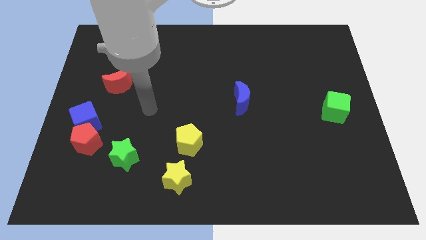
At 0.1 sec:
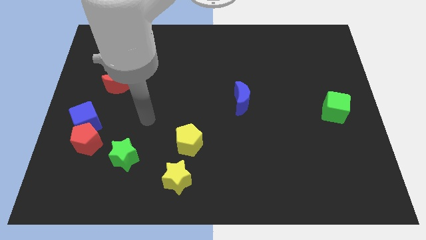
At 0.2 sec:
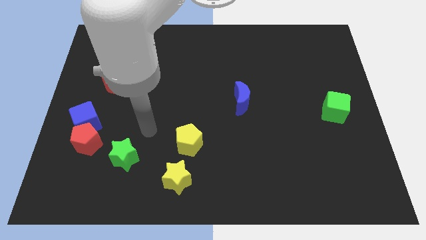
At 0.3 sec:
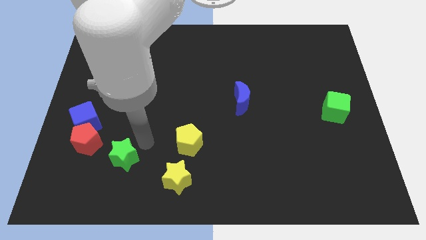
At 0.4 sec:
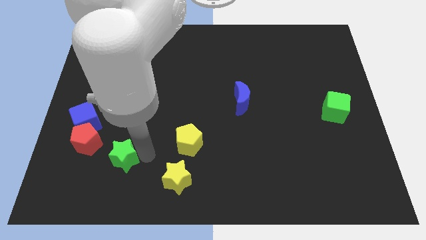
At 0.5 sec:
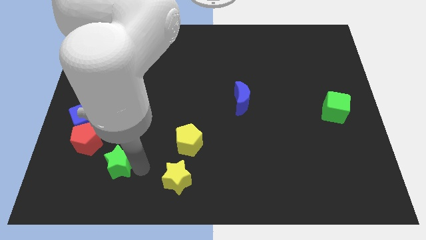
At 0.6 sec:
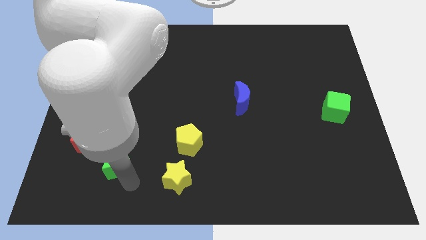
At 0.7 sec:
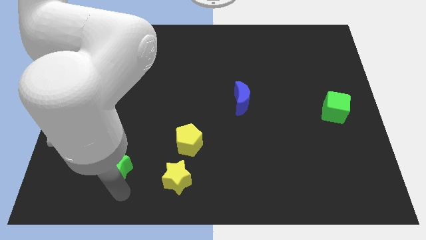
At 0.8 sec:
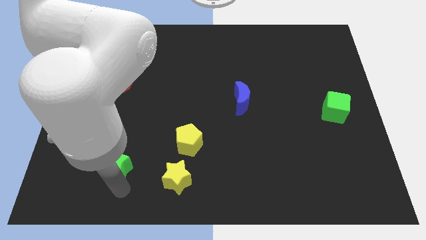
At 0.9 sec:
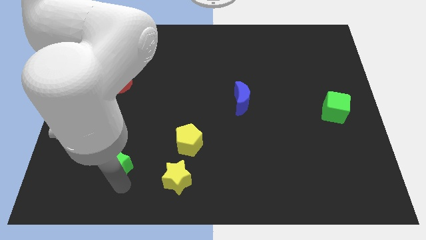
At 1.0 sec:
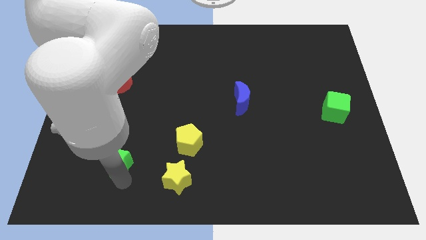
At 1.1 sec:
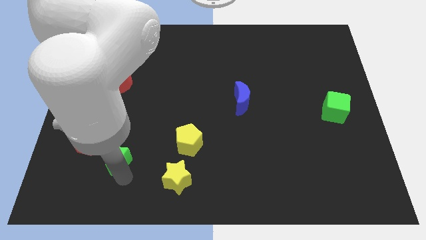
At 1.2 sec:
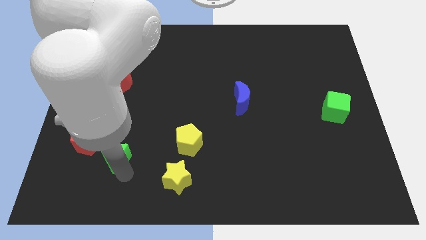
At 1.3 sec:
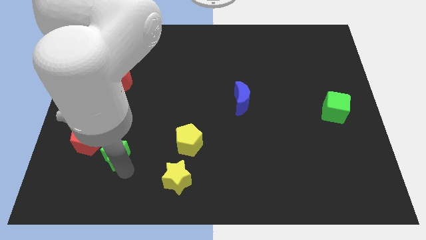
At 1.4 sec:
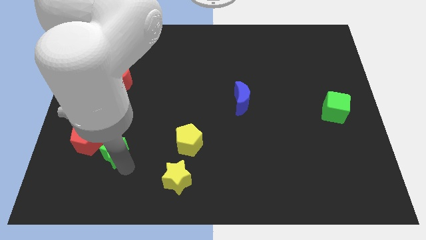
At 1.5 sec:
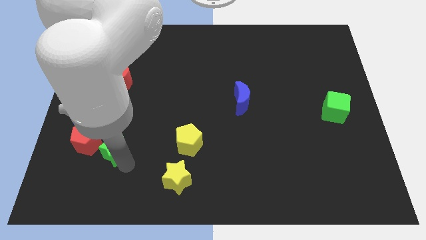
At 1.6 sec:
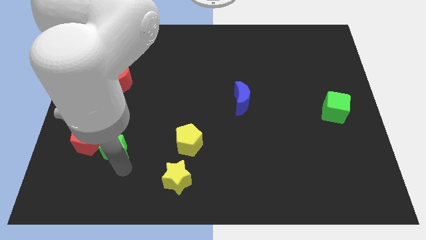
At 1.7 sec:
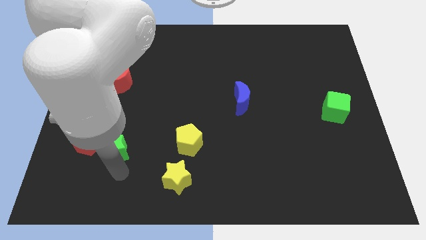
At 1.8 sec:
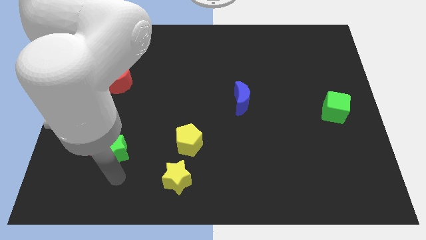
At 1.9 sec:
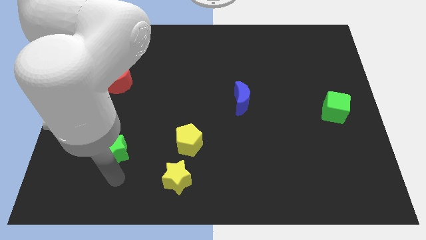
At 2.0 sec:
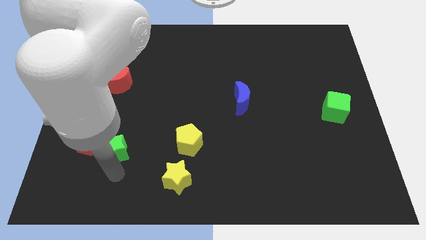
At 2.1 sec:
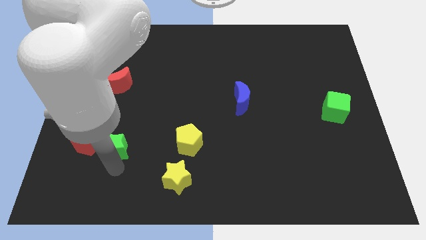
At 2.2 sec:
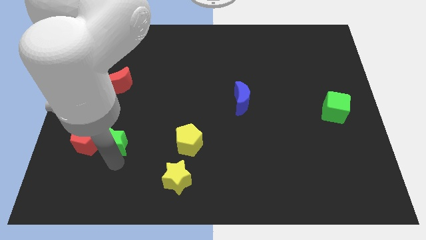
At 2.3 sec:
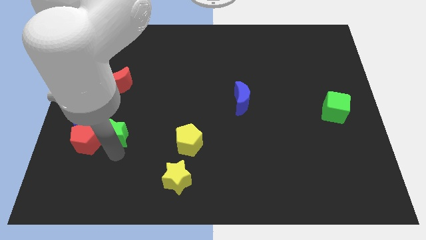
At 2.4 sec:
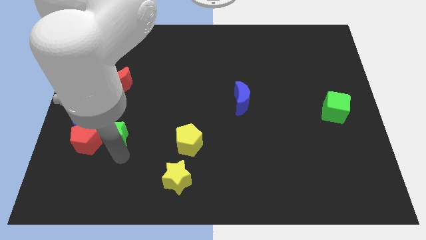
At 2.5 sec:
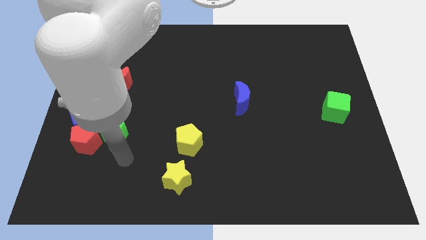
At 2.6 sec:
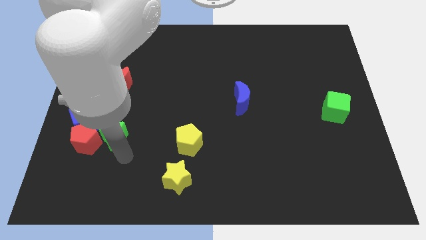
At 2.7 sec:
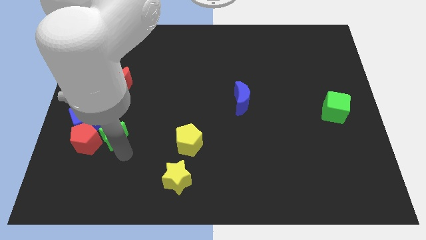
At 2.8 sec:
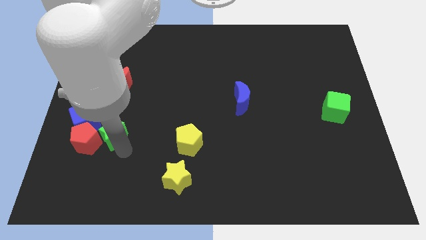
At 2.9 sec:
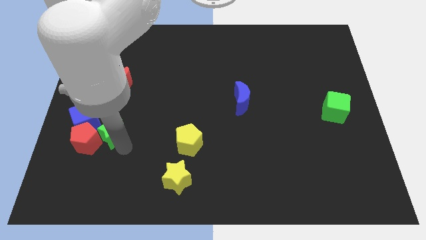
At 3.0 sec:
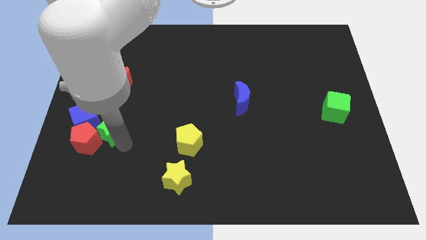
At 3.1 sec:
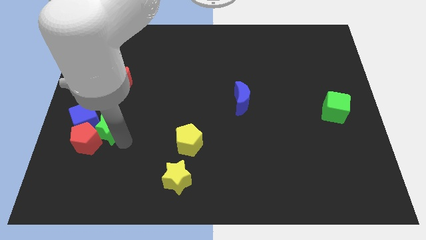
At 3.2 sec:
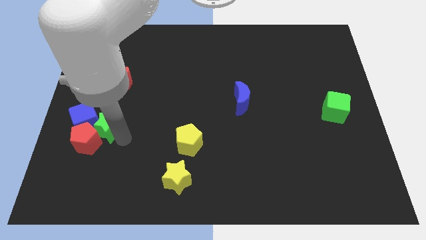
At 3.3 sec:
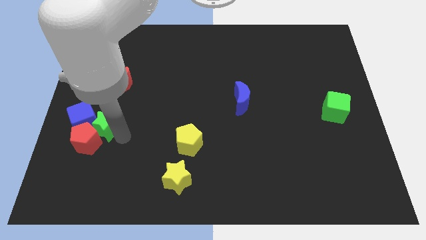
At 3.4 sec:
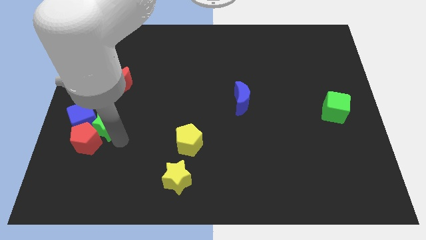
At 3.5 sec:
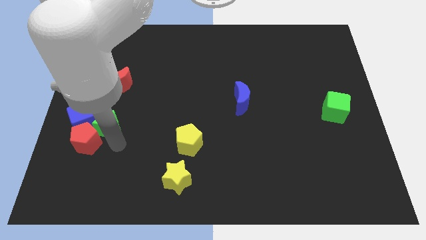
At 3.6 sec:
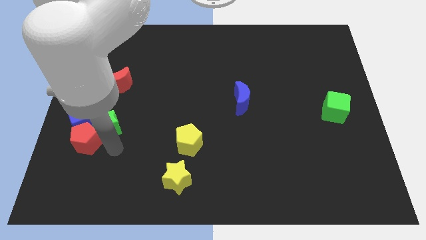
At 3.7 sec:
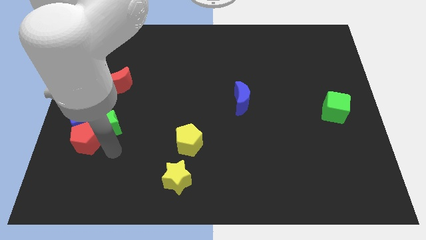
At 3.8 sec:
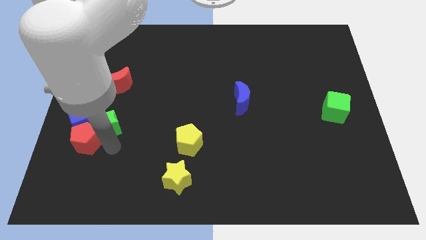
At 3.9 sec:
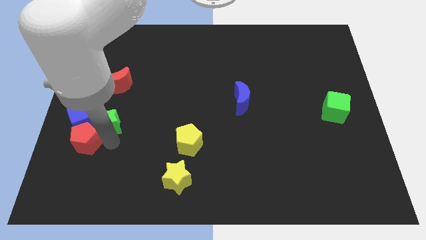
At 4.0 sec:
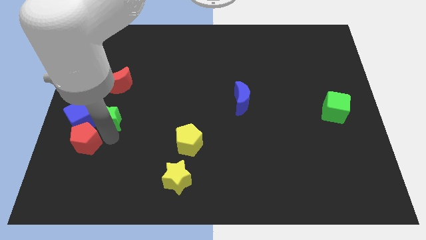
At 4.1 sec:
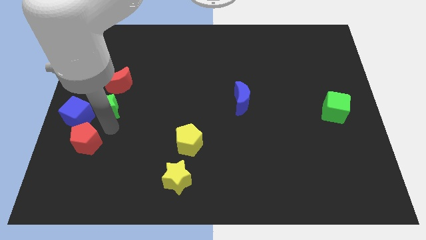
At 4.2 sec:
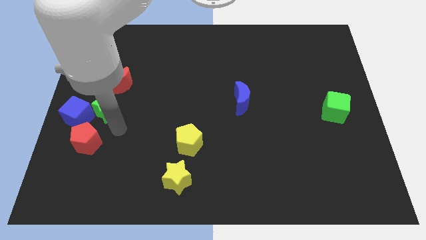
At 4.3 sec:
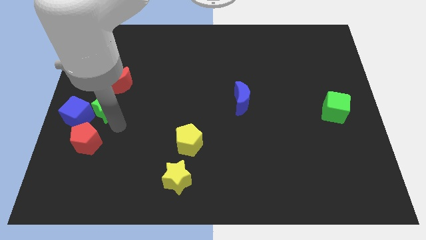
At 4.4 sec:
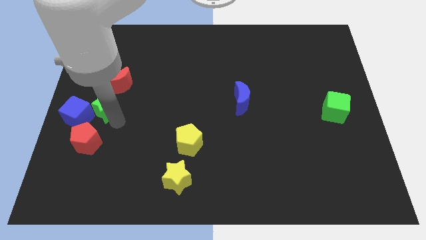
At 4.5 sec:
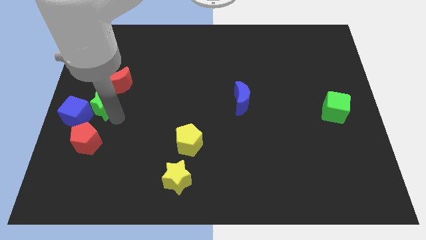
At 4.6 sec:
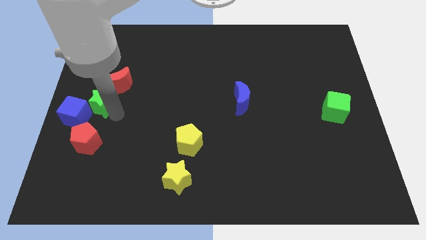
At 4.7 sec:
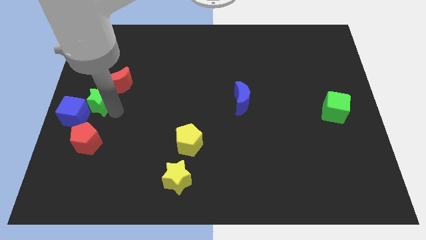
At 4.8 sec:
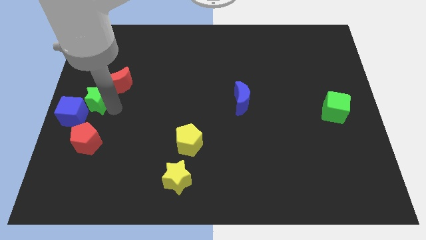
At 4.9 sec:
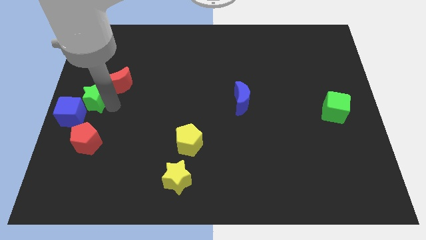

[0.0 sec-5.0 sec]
slide the green star to the top of the blue cube

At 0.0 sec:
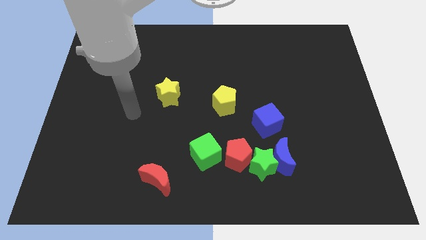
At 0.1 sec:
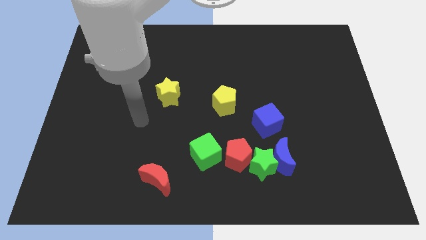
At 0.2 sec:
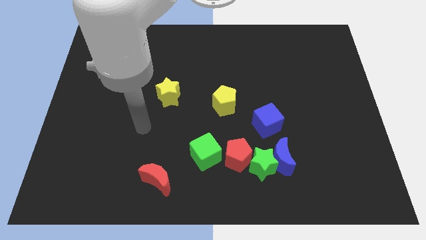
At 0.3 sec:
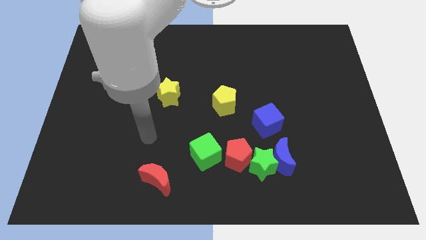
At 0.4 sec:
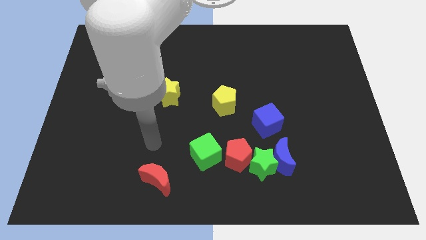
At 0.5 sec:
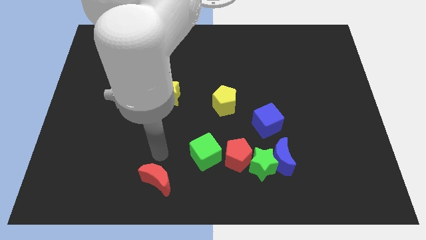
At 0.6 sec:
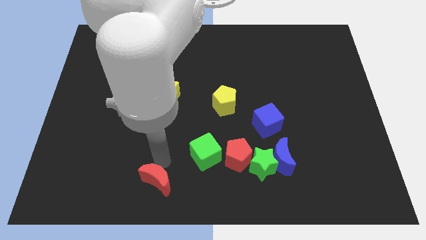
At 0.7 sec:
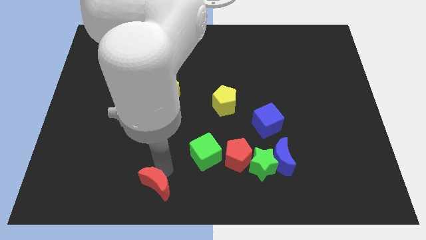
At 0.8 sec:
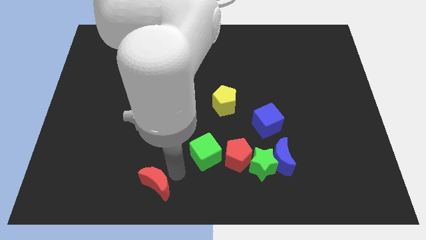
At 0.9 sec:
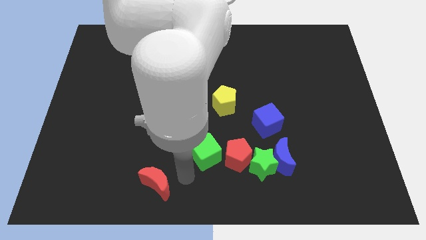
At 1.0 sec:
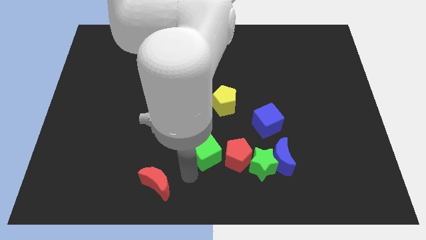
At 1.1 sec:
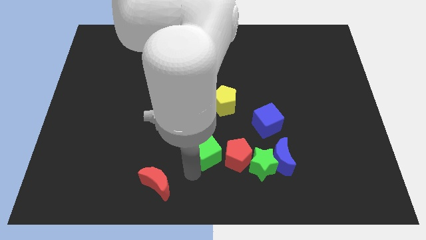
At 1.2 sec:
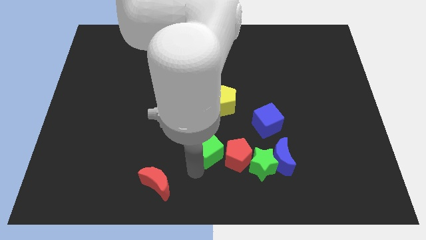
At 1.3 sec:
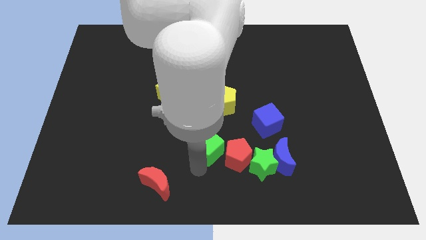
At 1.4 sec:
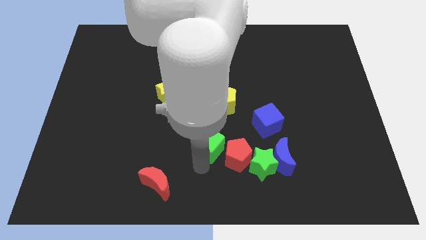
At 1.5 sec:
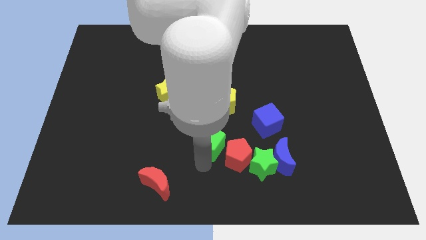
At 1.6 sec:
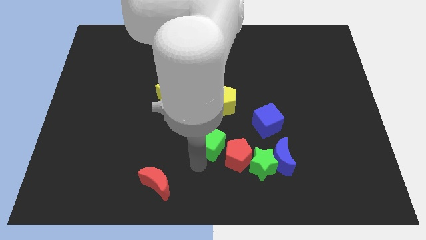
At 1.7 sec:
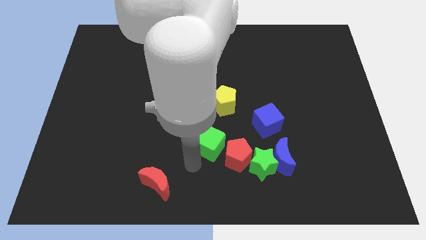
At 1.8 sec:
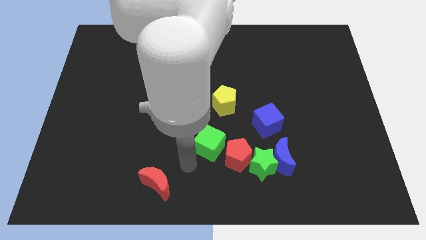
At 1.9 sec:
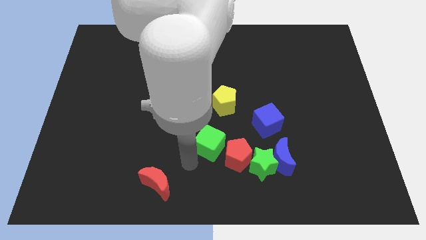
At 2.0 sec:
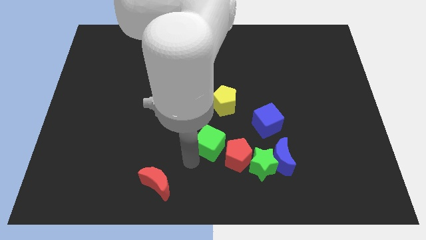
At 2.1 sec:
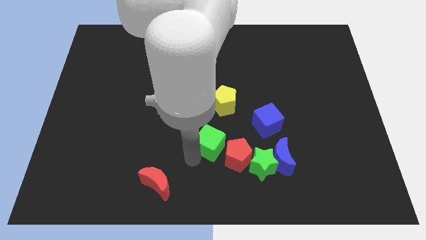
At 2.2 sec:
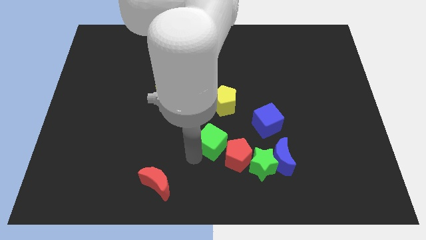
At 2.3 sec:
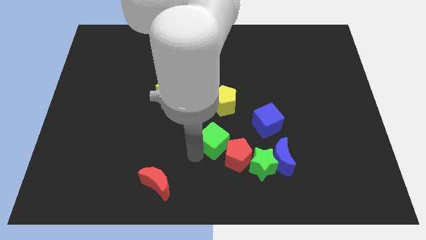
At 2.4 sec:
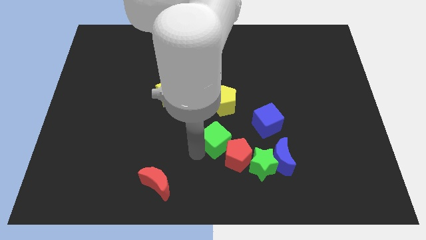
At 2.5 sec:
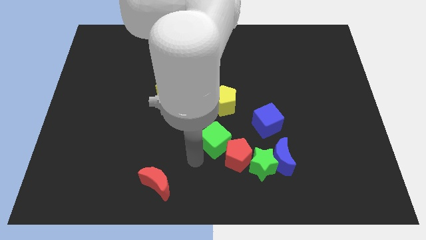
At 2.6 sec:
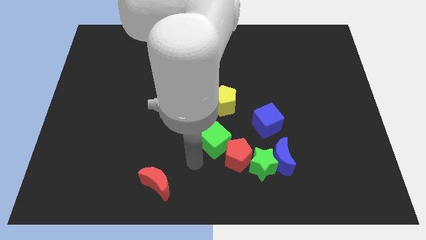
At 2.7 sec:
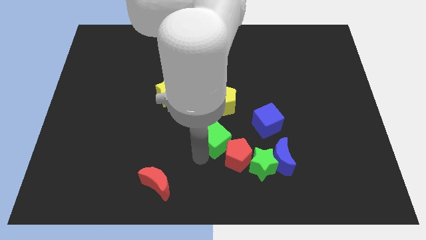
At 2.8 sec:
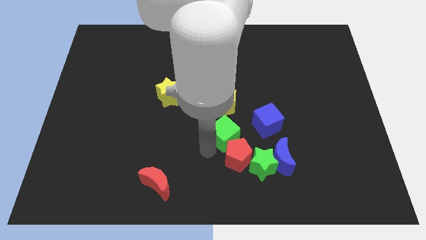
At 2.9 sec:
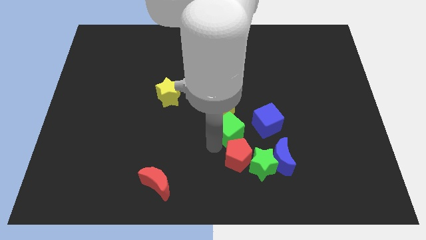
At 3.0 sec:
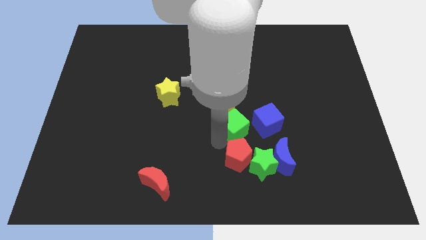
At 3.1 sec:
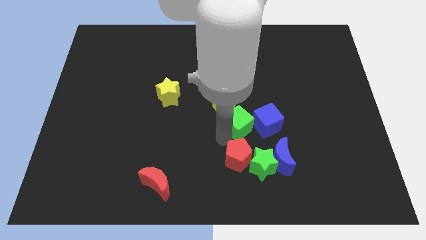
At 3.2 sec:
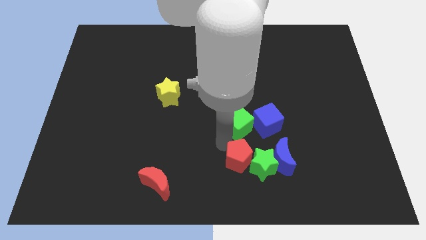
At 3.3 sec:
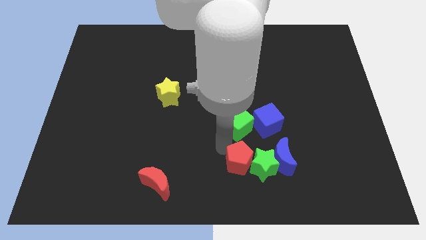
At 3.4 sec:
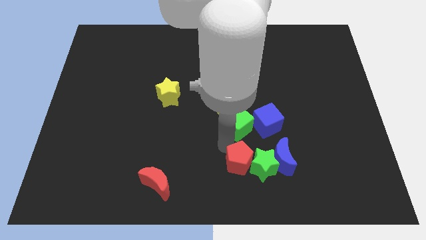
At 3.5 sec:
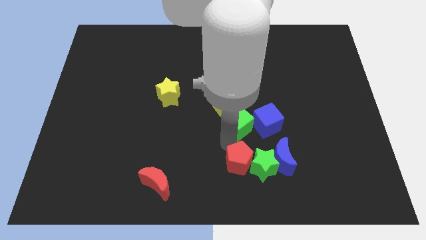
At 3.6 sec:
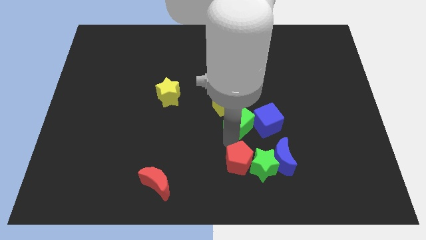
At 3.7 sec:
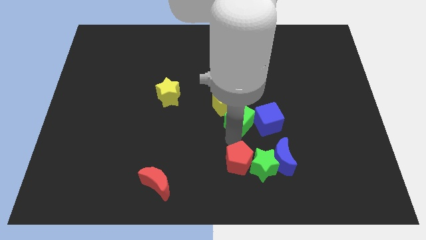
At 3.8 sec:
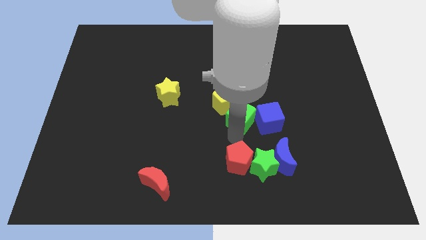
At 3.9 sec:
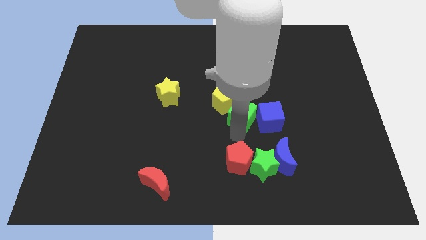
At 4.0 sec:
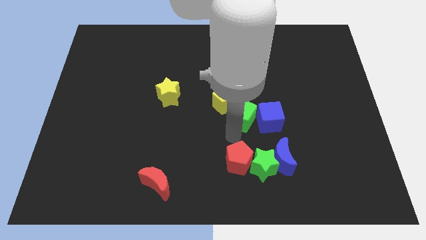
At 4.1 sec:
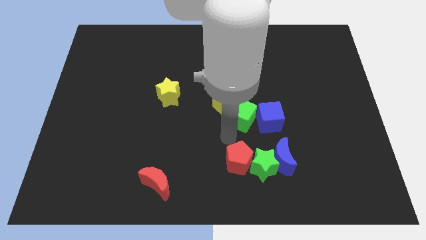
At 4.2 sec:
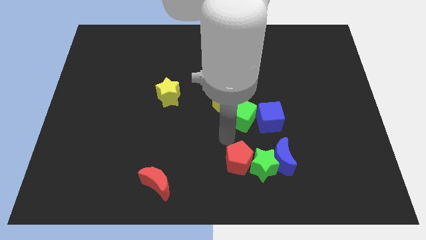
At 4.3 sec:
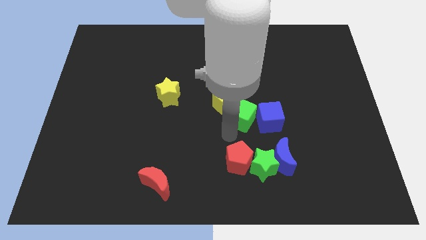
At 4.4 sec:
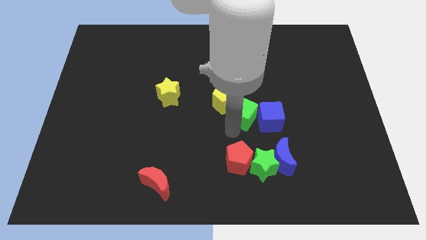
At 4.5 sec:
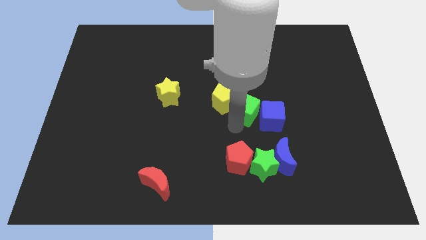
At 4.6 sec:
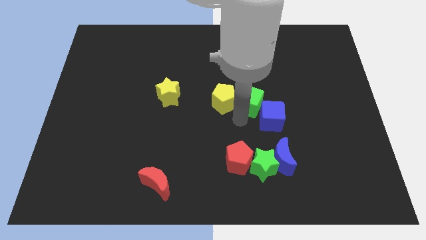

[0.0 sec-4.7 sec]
move the green cube above the blue cube
